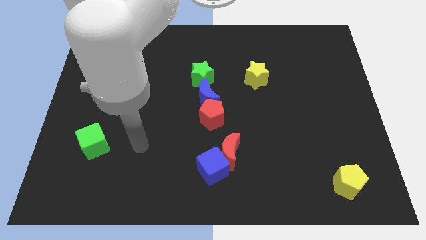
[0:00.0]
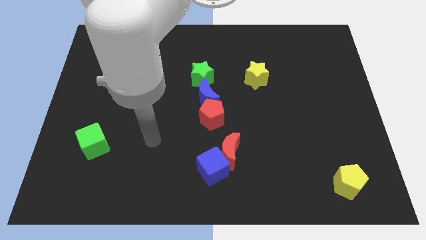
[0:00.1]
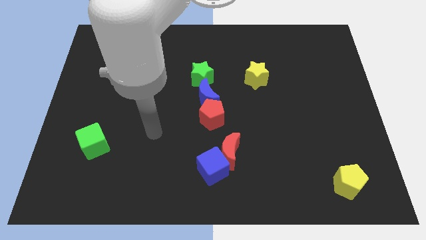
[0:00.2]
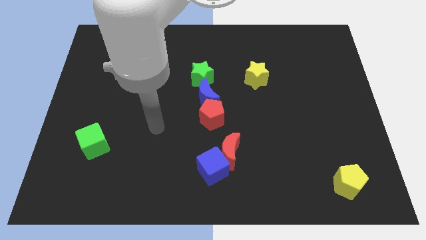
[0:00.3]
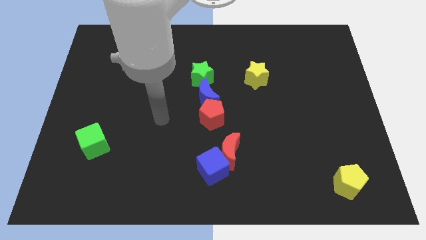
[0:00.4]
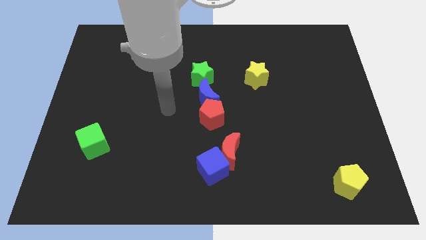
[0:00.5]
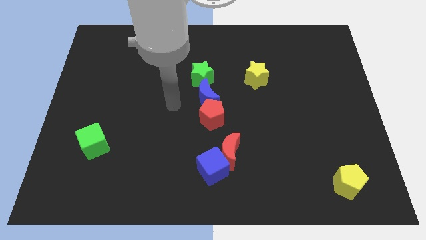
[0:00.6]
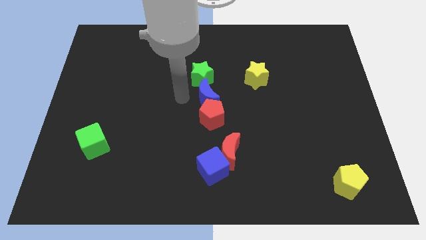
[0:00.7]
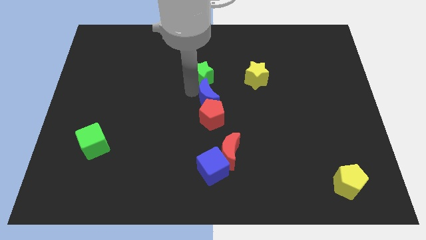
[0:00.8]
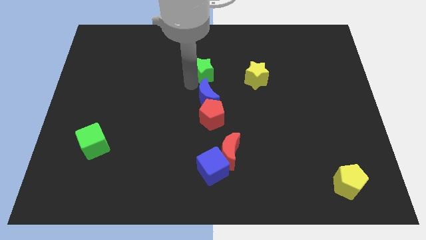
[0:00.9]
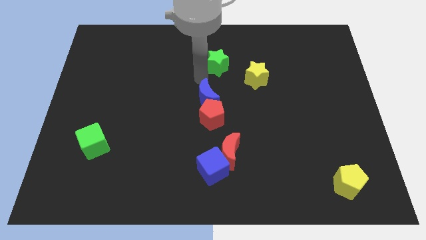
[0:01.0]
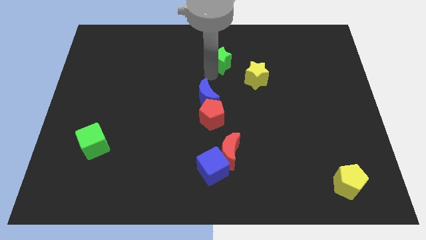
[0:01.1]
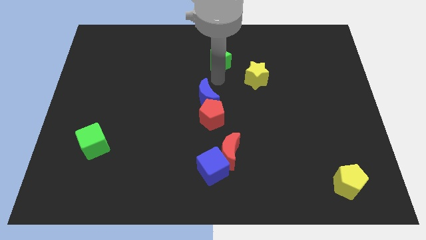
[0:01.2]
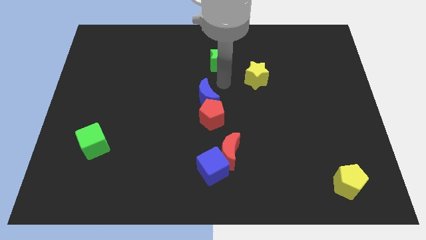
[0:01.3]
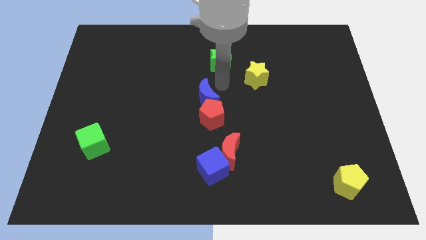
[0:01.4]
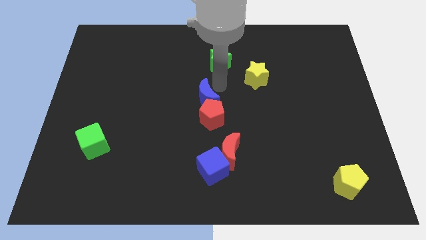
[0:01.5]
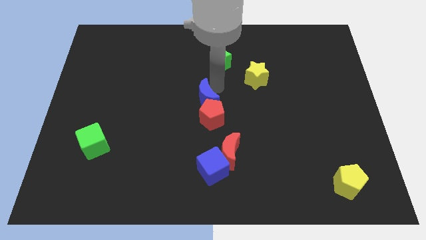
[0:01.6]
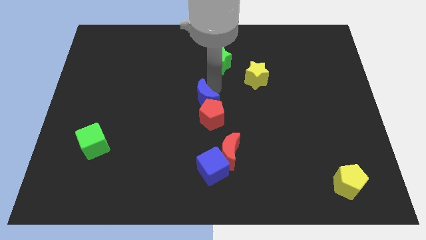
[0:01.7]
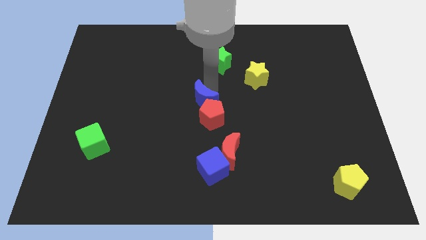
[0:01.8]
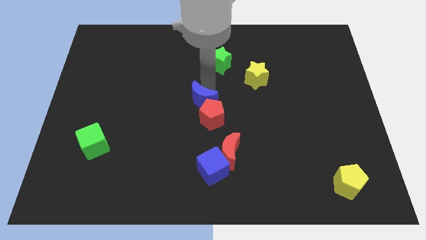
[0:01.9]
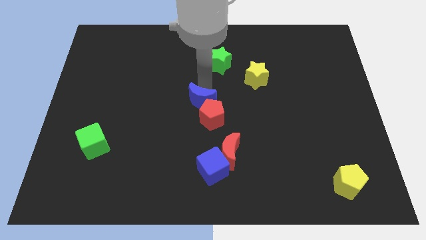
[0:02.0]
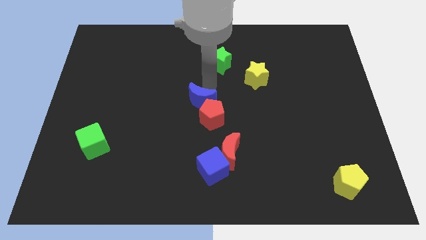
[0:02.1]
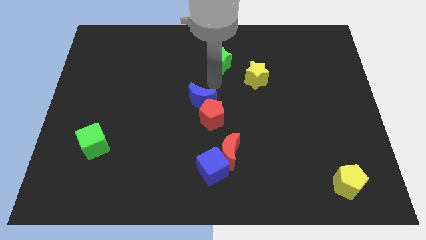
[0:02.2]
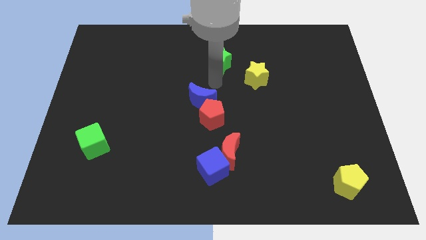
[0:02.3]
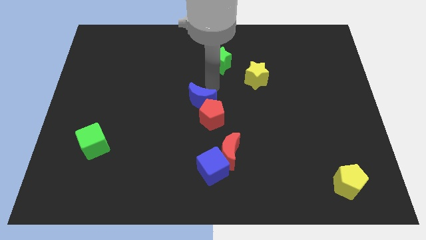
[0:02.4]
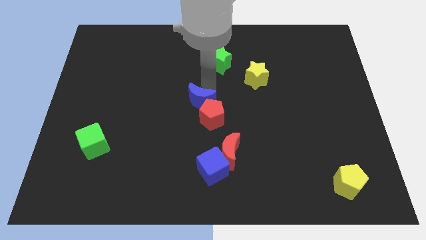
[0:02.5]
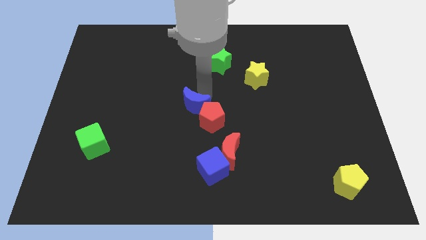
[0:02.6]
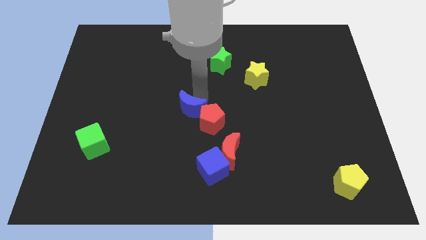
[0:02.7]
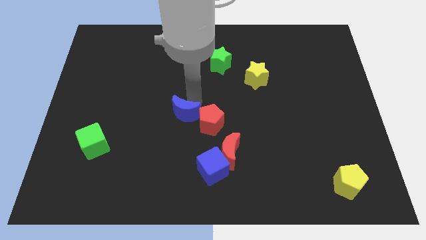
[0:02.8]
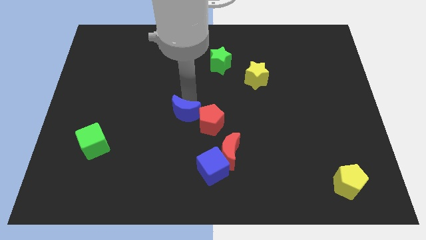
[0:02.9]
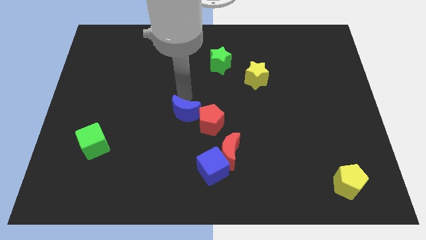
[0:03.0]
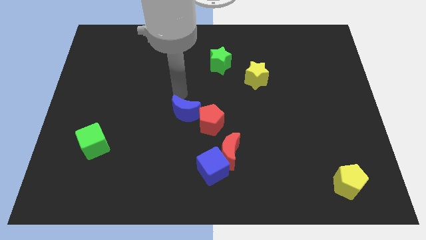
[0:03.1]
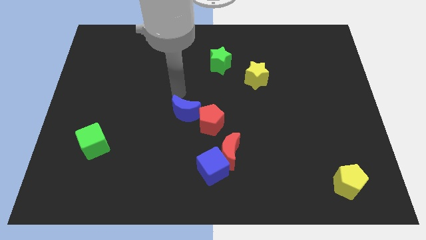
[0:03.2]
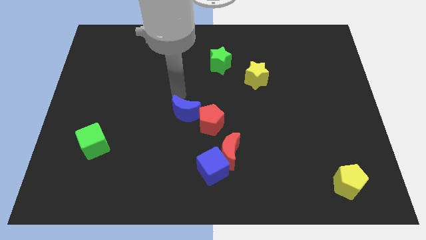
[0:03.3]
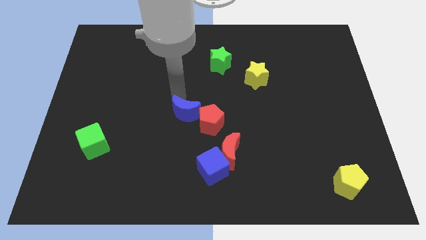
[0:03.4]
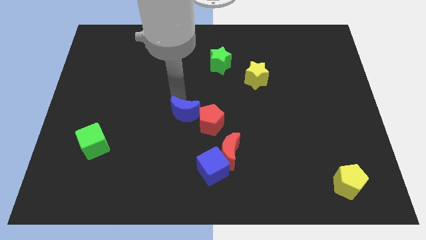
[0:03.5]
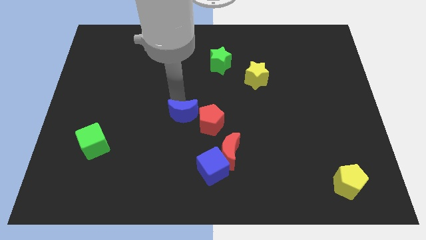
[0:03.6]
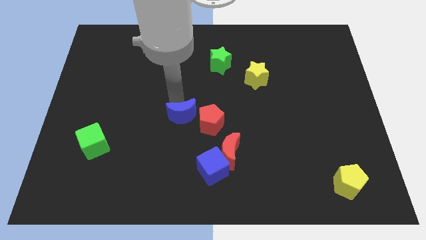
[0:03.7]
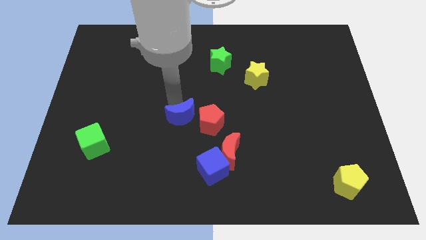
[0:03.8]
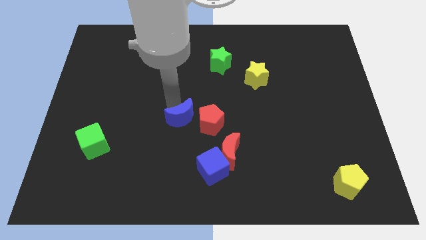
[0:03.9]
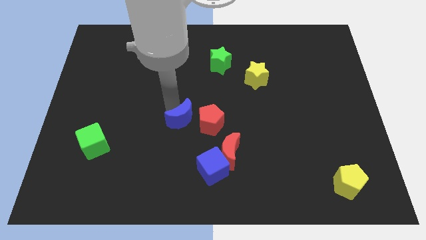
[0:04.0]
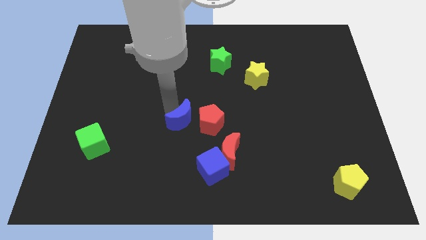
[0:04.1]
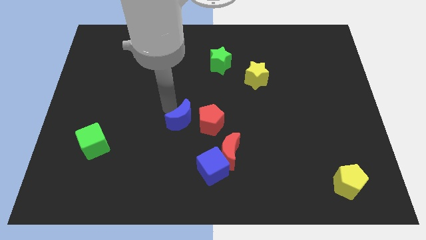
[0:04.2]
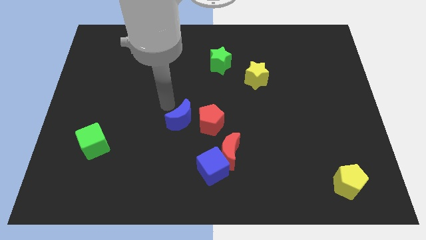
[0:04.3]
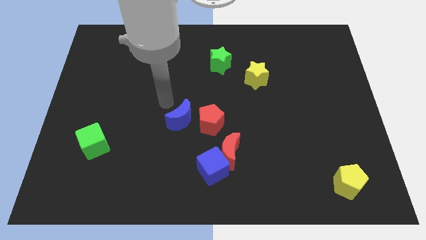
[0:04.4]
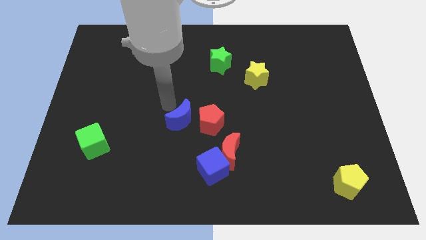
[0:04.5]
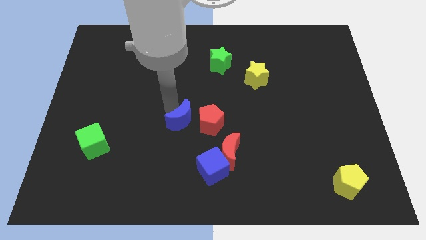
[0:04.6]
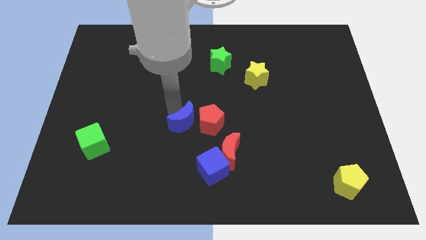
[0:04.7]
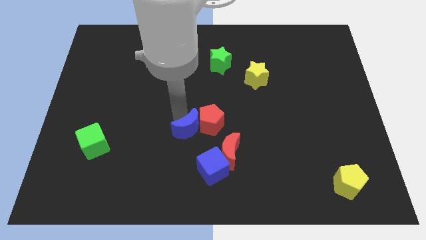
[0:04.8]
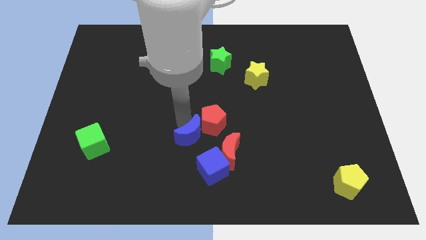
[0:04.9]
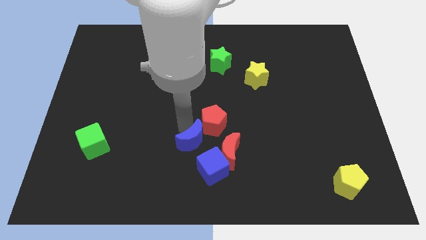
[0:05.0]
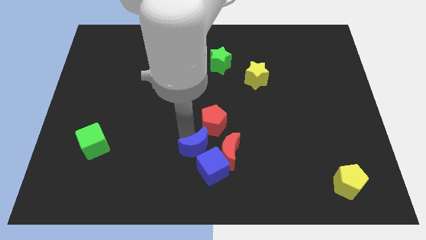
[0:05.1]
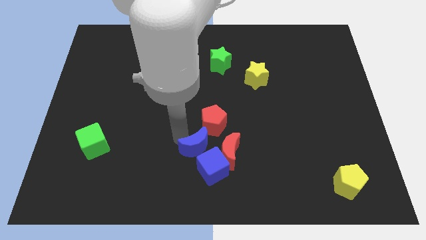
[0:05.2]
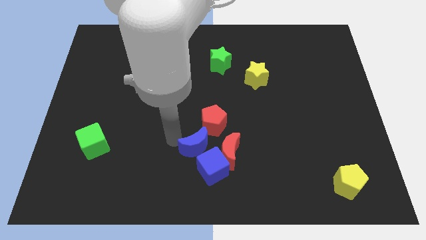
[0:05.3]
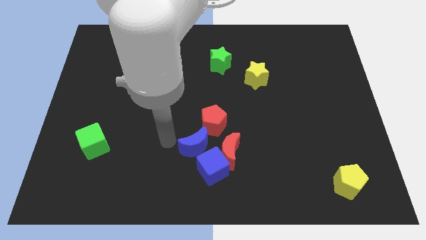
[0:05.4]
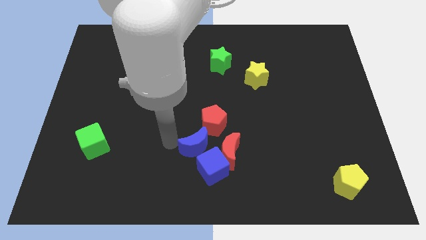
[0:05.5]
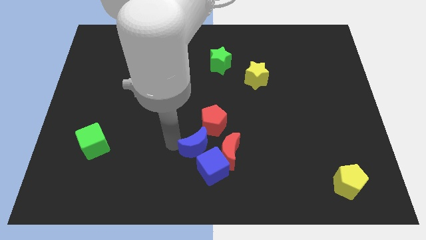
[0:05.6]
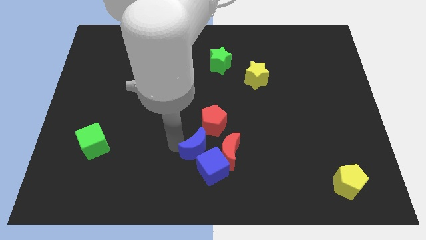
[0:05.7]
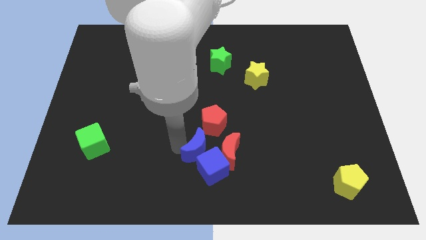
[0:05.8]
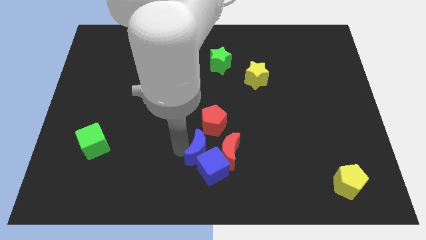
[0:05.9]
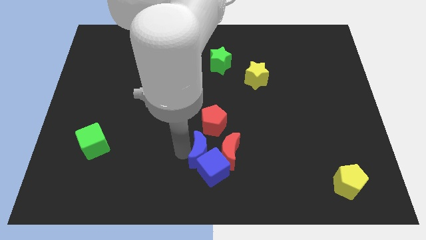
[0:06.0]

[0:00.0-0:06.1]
put the blue moon close to the red moon

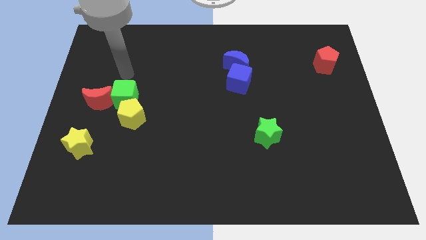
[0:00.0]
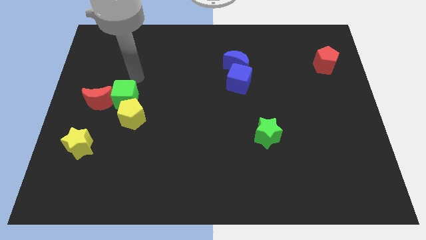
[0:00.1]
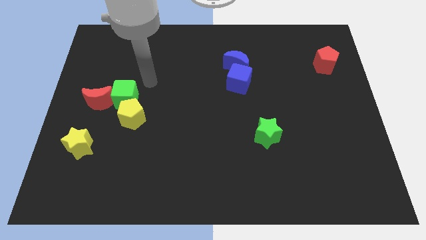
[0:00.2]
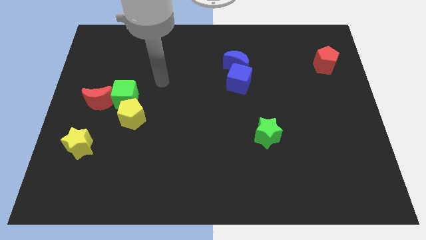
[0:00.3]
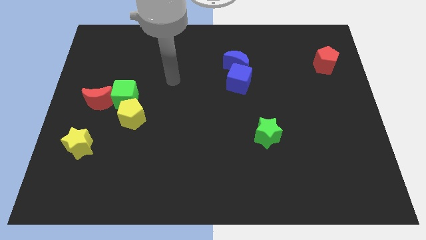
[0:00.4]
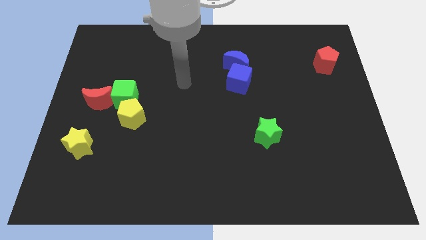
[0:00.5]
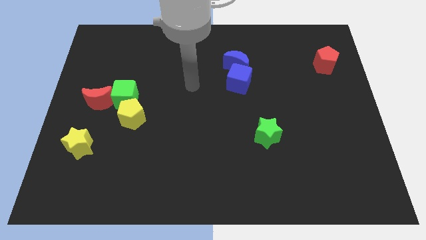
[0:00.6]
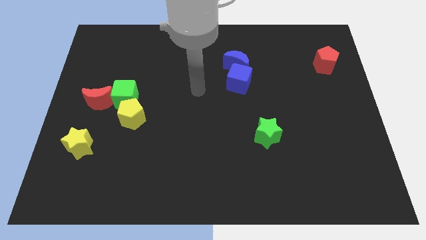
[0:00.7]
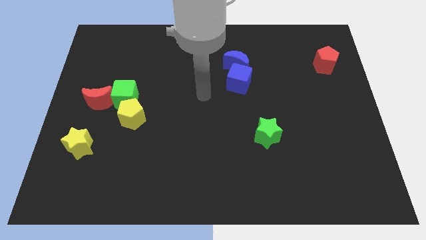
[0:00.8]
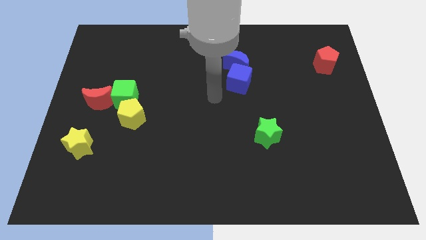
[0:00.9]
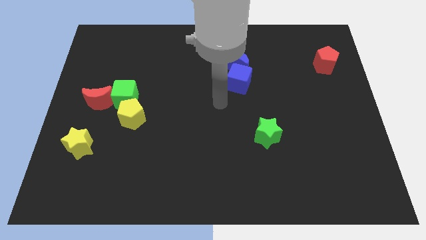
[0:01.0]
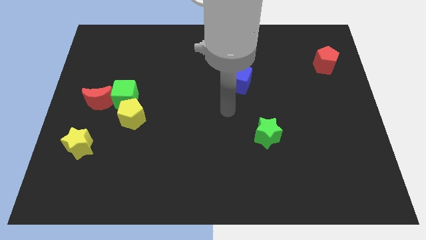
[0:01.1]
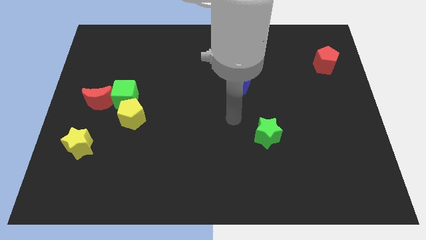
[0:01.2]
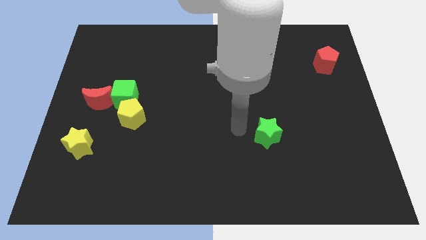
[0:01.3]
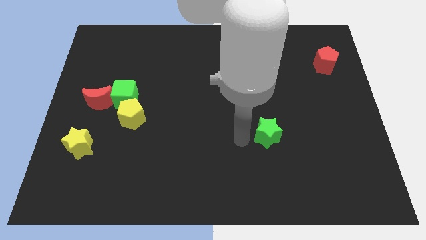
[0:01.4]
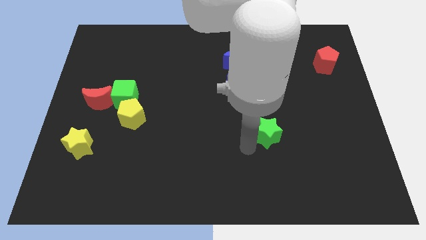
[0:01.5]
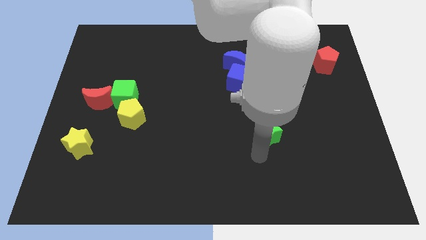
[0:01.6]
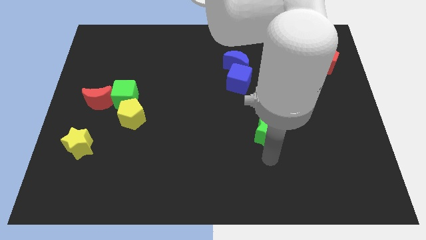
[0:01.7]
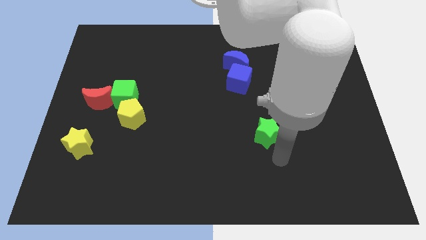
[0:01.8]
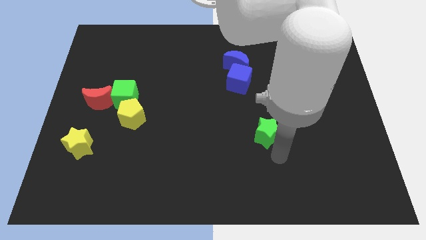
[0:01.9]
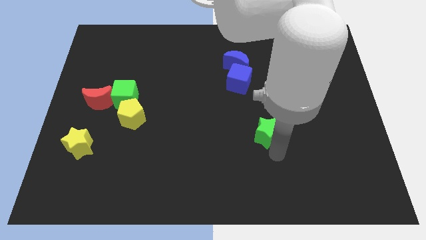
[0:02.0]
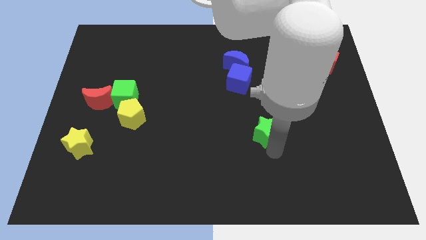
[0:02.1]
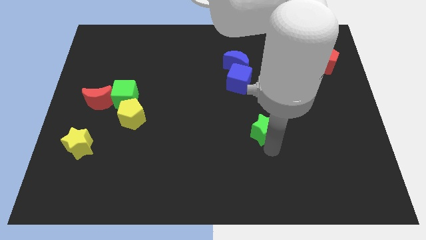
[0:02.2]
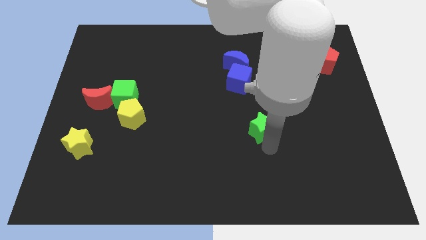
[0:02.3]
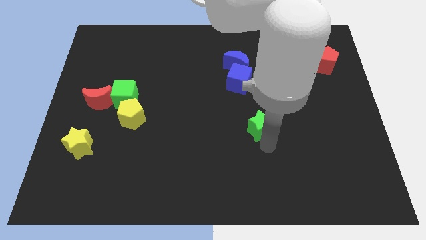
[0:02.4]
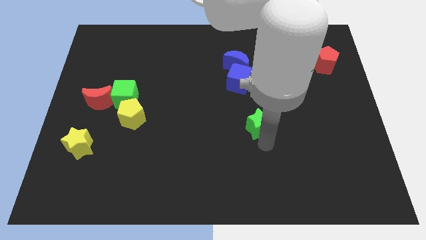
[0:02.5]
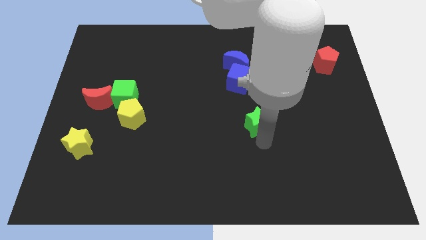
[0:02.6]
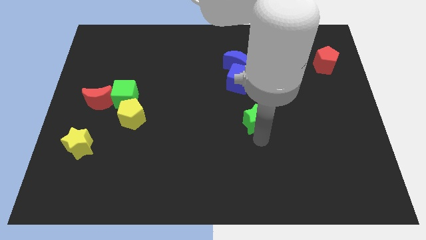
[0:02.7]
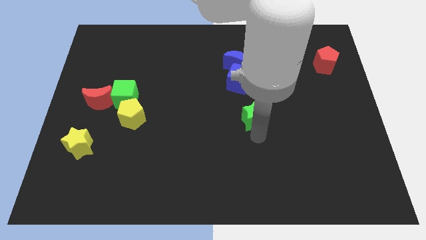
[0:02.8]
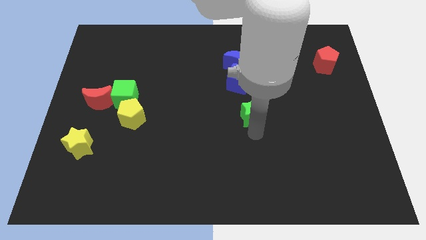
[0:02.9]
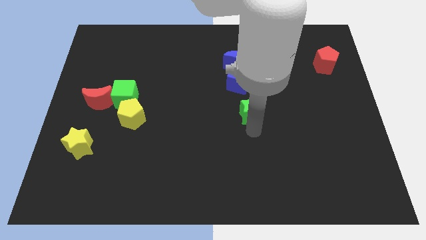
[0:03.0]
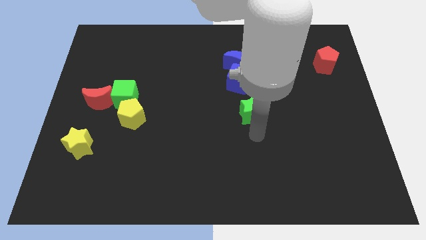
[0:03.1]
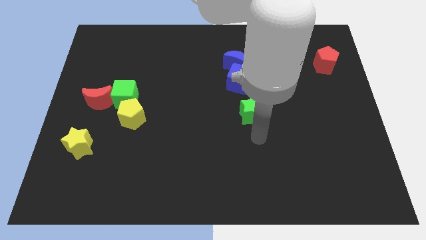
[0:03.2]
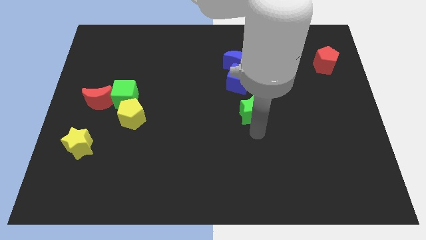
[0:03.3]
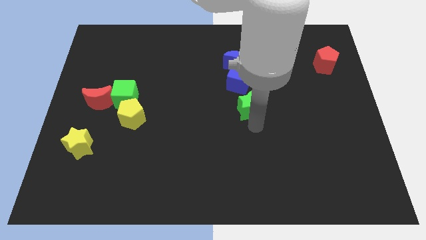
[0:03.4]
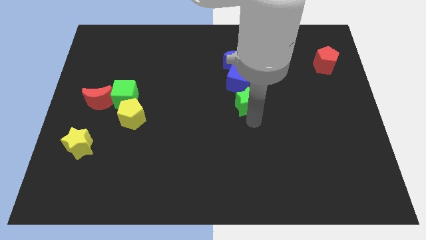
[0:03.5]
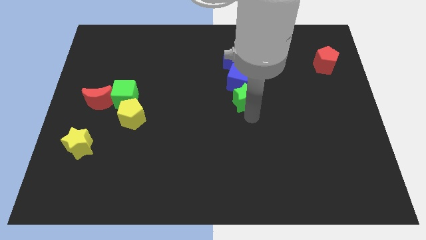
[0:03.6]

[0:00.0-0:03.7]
slide the green star to the blue cube
